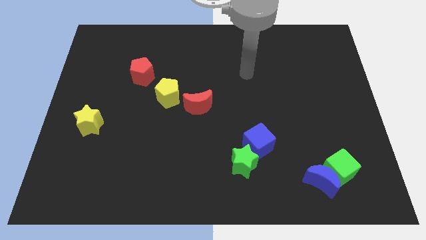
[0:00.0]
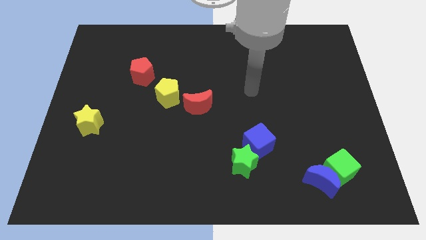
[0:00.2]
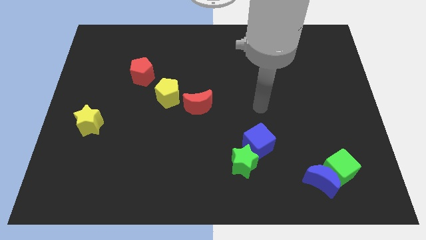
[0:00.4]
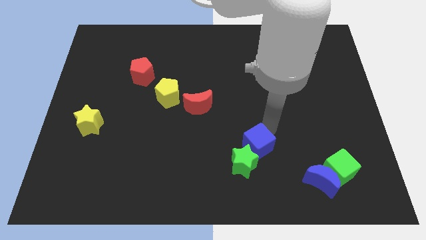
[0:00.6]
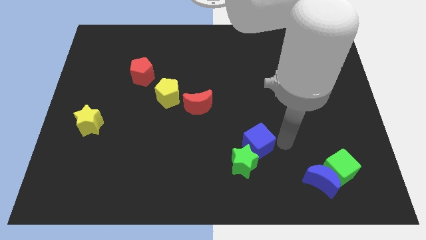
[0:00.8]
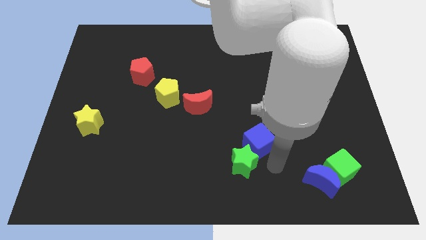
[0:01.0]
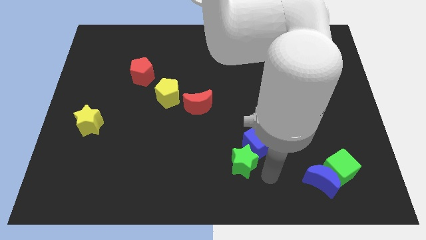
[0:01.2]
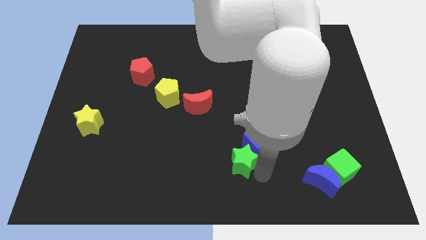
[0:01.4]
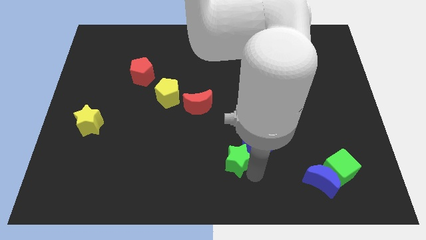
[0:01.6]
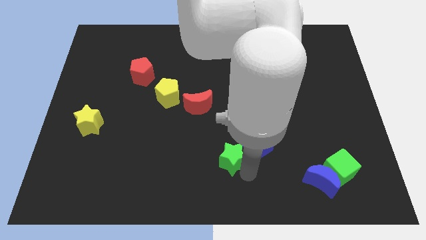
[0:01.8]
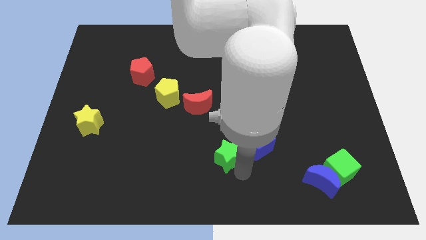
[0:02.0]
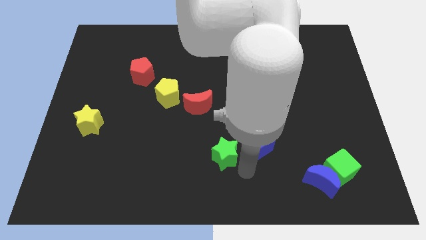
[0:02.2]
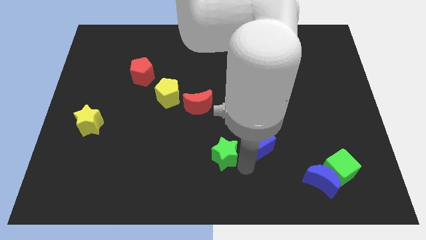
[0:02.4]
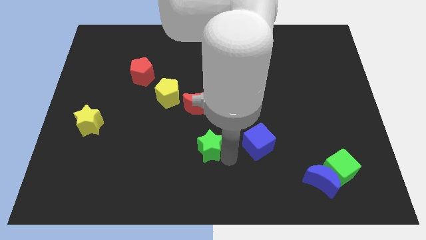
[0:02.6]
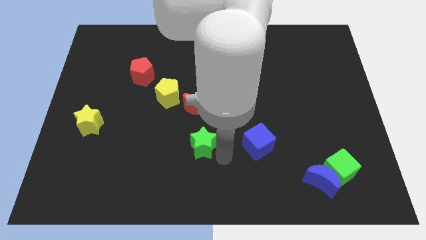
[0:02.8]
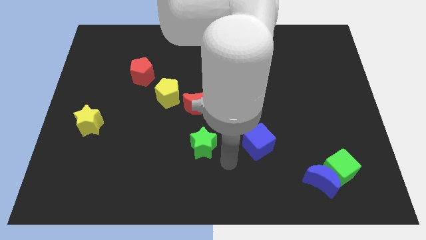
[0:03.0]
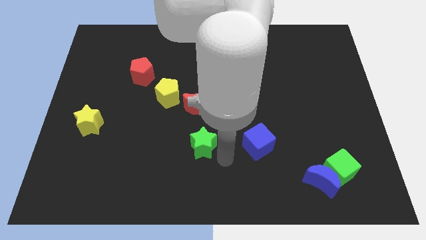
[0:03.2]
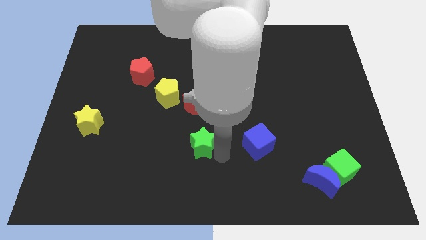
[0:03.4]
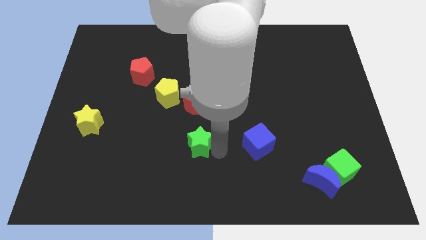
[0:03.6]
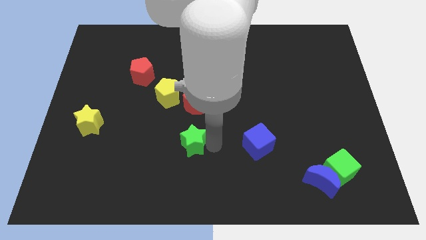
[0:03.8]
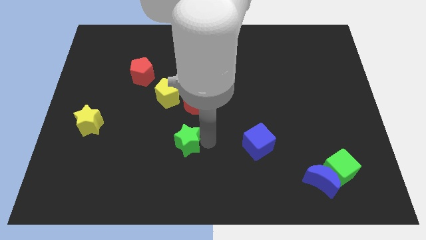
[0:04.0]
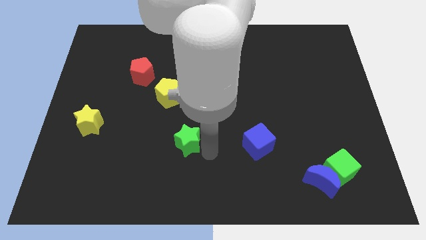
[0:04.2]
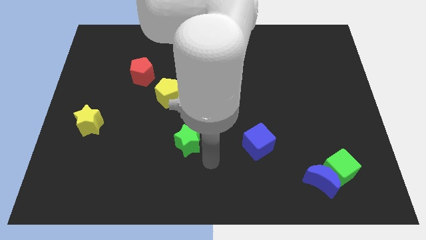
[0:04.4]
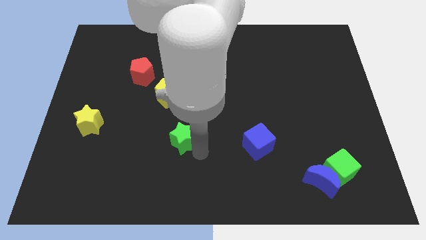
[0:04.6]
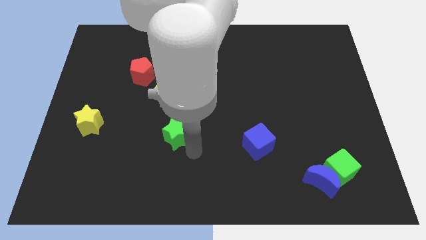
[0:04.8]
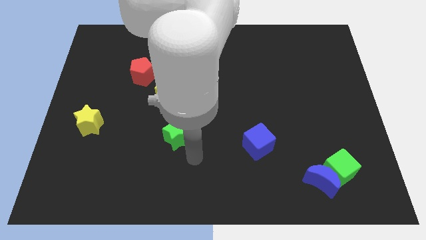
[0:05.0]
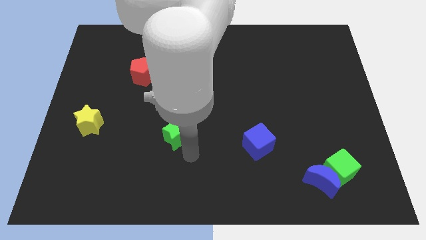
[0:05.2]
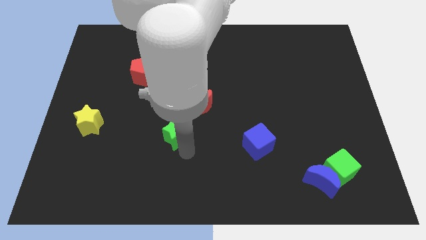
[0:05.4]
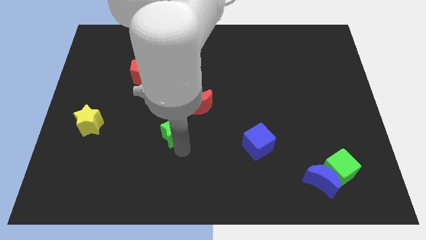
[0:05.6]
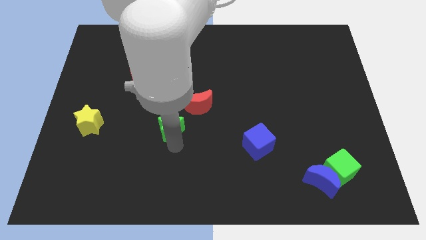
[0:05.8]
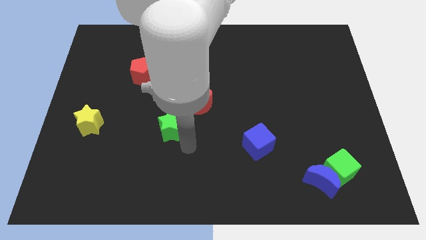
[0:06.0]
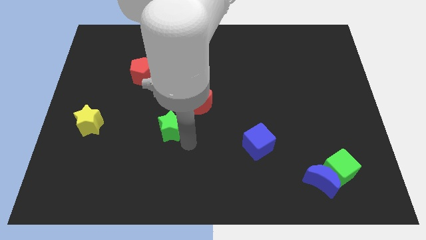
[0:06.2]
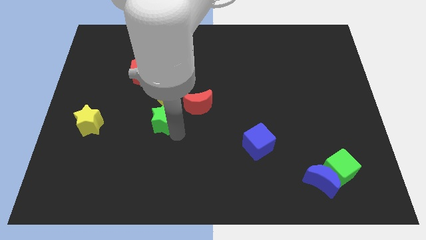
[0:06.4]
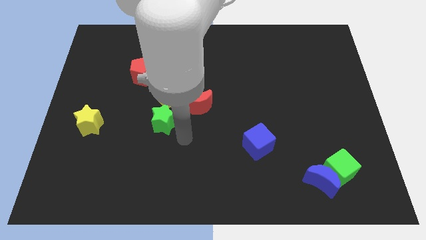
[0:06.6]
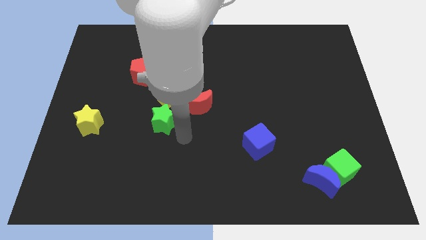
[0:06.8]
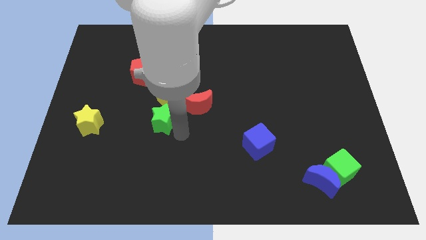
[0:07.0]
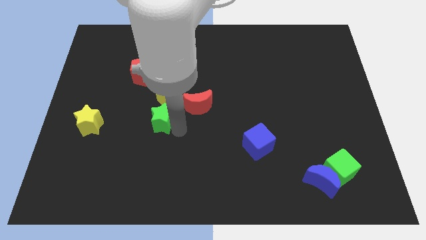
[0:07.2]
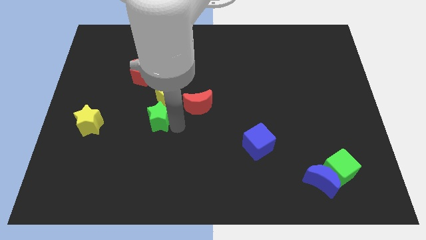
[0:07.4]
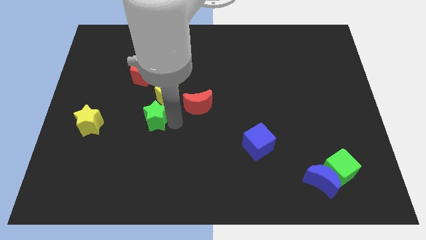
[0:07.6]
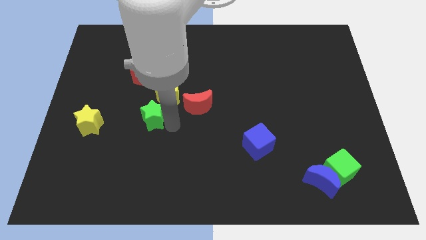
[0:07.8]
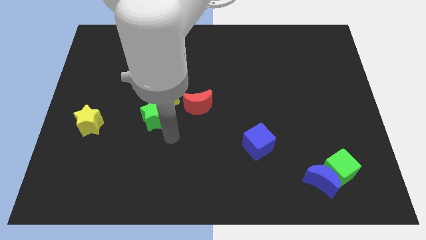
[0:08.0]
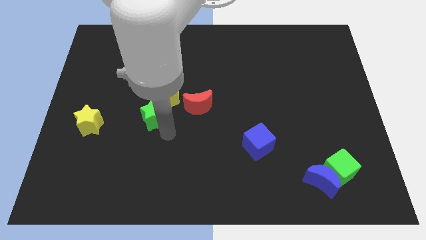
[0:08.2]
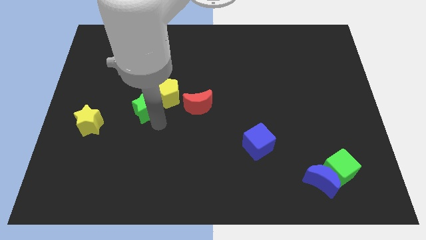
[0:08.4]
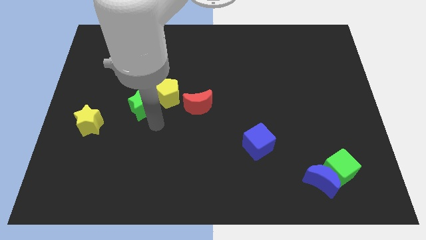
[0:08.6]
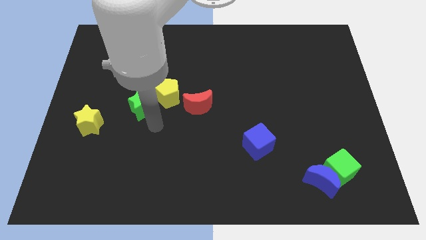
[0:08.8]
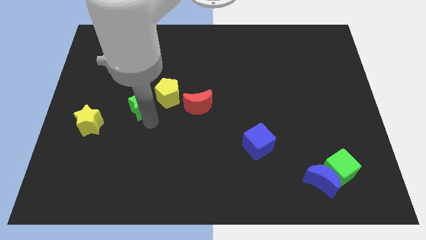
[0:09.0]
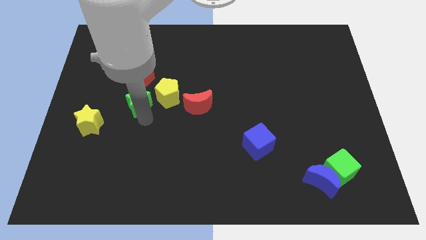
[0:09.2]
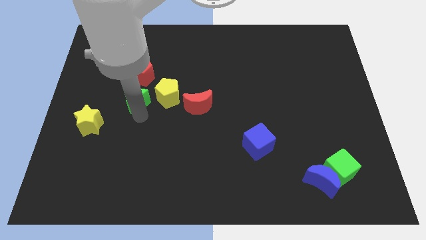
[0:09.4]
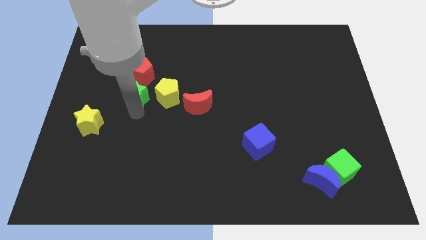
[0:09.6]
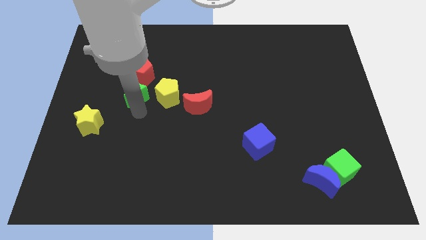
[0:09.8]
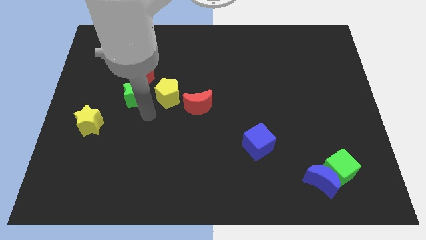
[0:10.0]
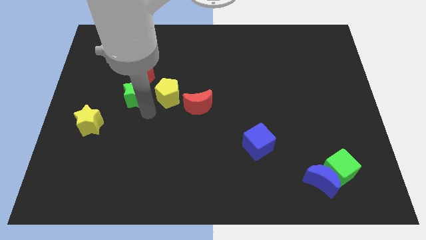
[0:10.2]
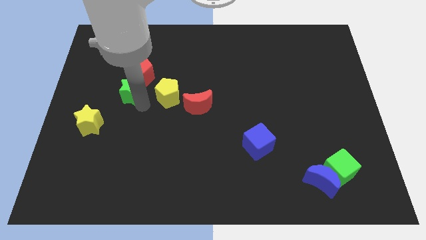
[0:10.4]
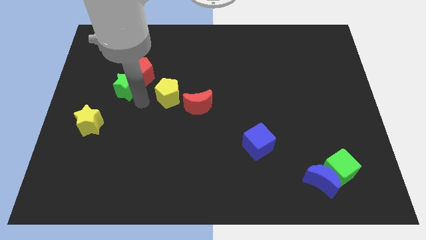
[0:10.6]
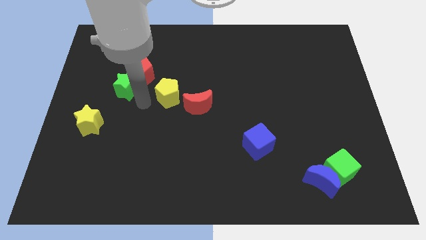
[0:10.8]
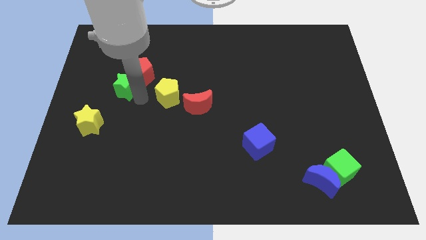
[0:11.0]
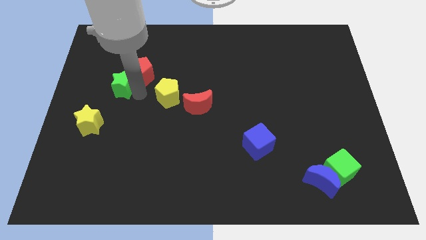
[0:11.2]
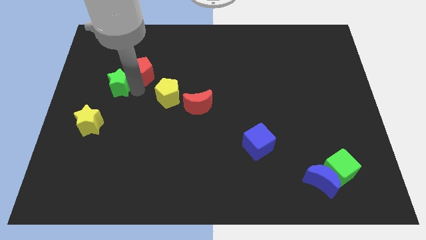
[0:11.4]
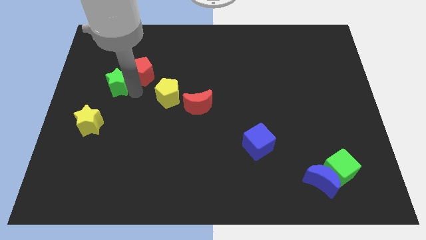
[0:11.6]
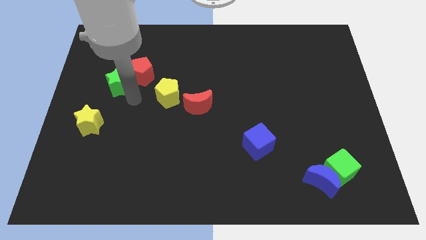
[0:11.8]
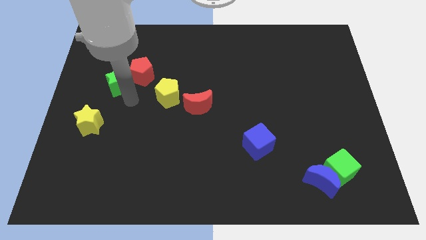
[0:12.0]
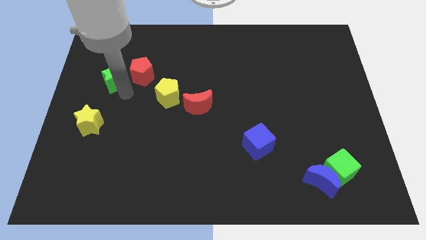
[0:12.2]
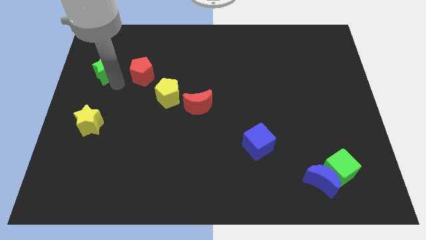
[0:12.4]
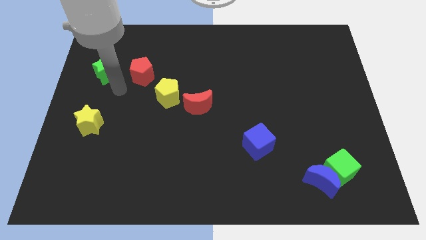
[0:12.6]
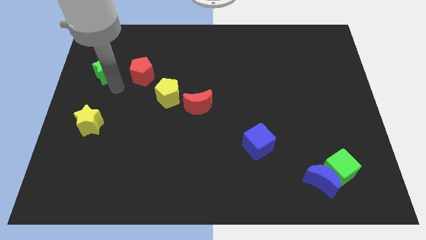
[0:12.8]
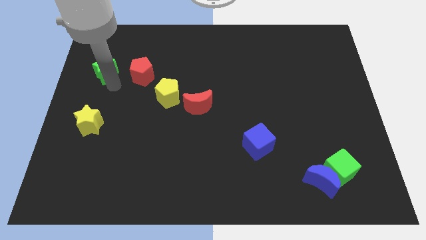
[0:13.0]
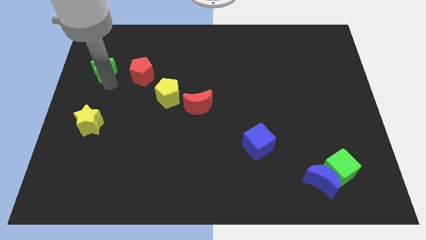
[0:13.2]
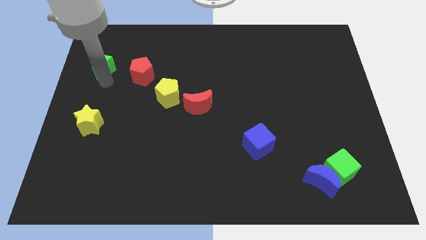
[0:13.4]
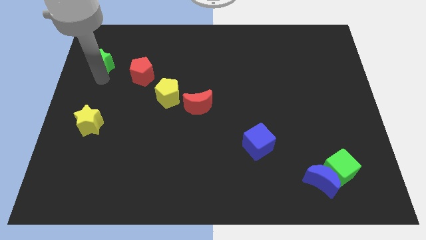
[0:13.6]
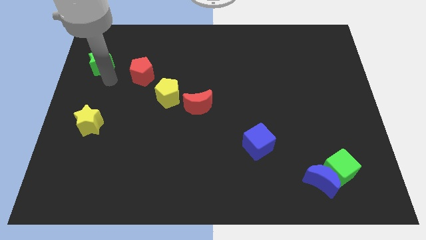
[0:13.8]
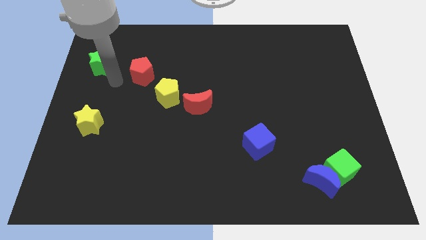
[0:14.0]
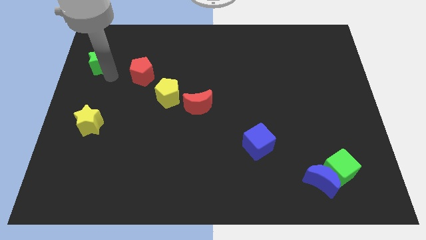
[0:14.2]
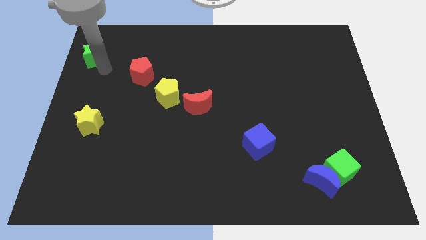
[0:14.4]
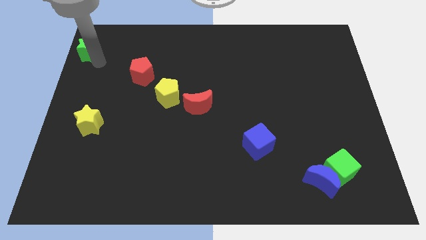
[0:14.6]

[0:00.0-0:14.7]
move the green star to the top left
